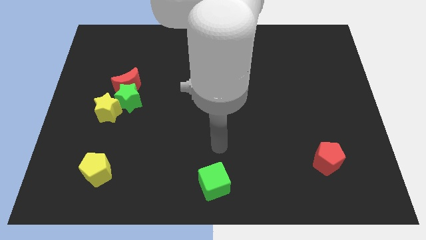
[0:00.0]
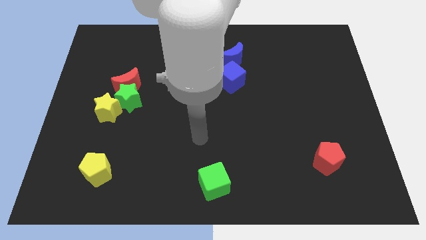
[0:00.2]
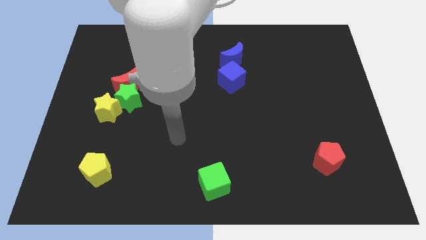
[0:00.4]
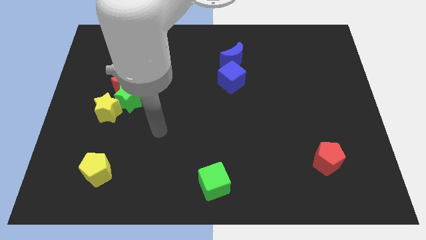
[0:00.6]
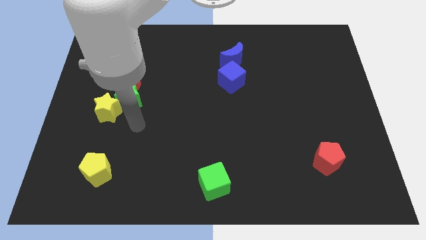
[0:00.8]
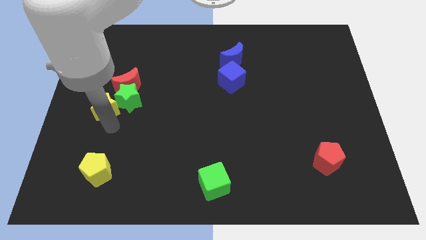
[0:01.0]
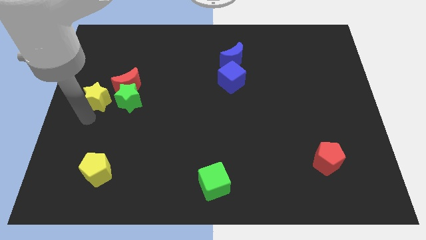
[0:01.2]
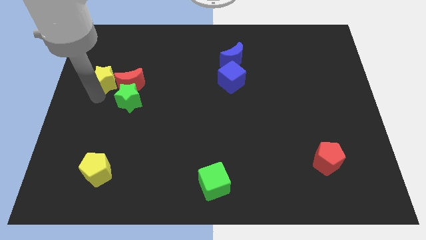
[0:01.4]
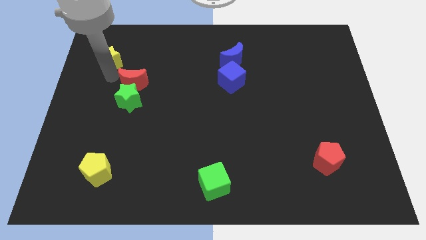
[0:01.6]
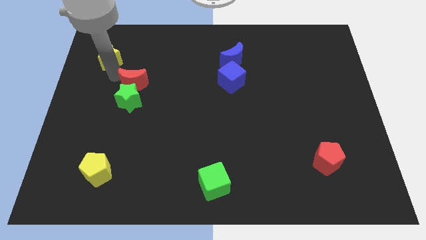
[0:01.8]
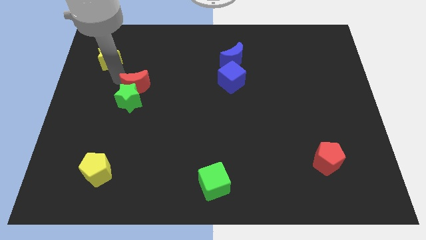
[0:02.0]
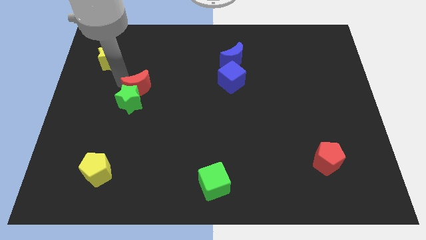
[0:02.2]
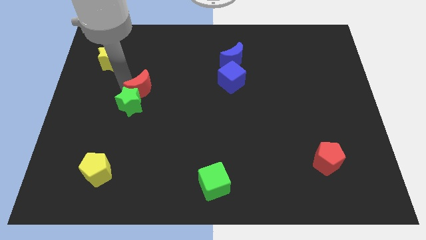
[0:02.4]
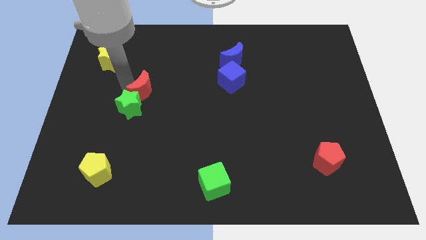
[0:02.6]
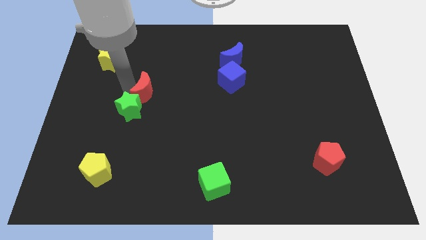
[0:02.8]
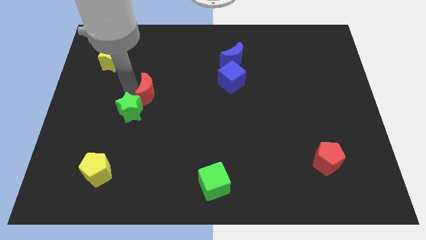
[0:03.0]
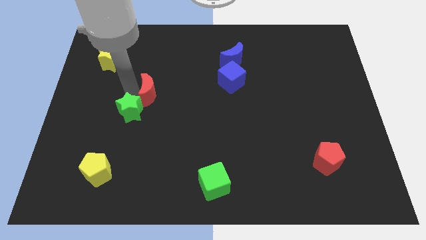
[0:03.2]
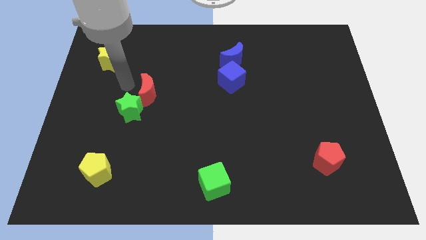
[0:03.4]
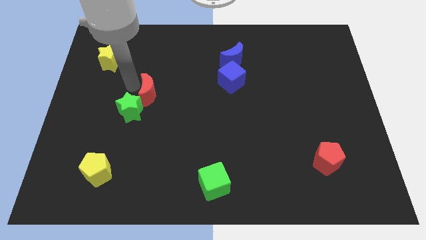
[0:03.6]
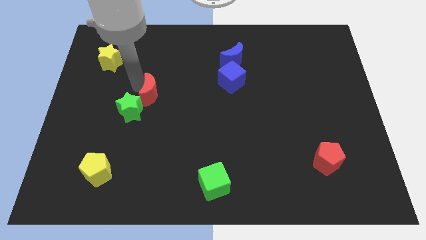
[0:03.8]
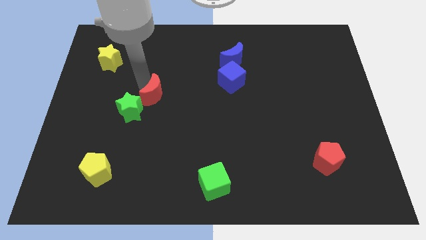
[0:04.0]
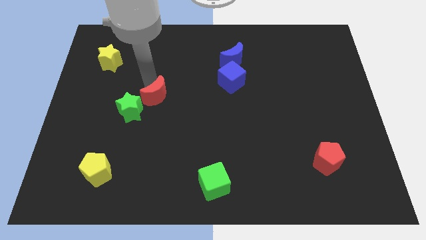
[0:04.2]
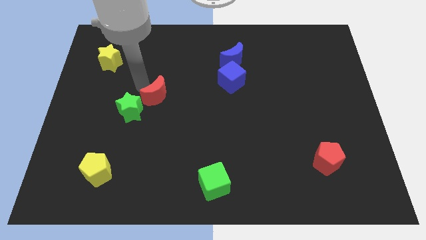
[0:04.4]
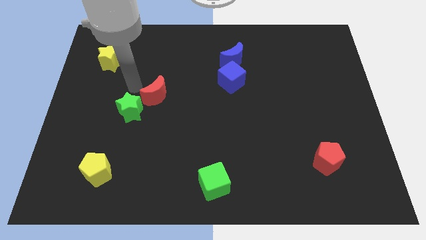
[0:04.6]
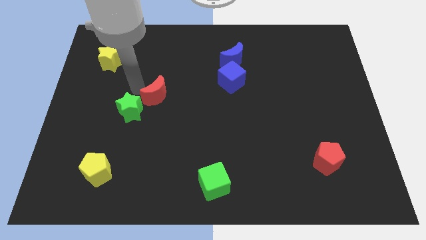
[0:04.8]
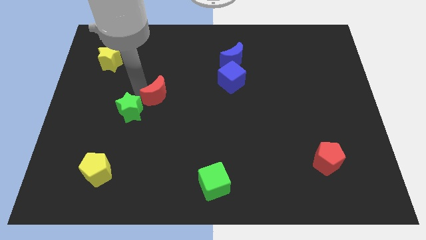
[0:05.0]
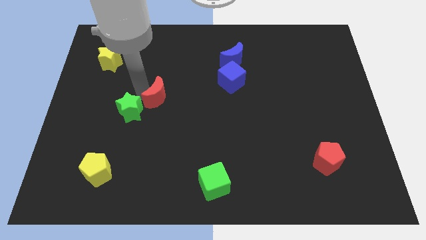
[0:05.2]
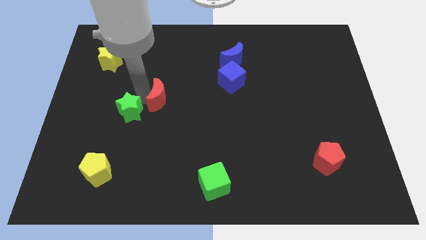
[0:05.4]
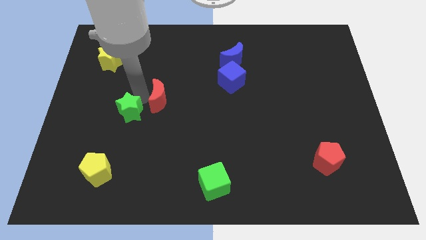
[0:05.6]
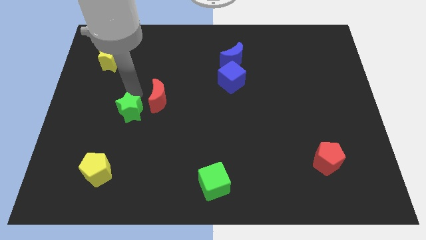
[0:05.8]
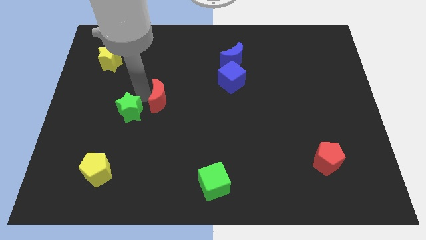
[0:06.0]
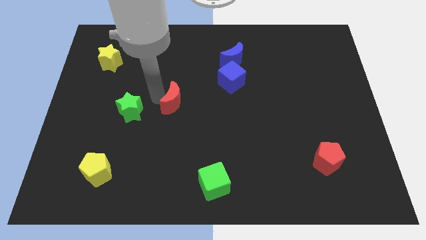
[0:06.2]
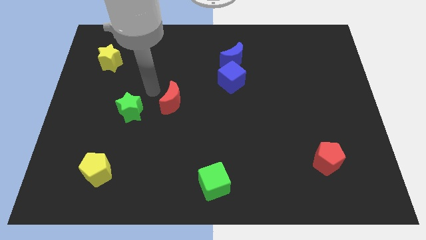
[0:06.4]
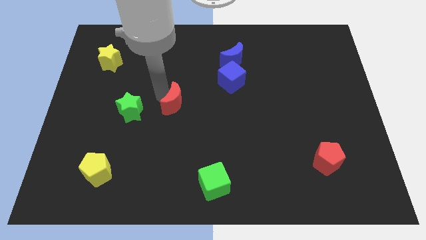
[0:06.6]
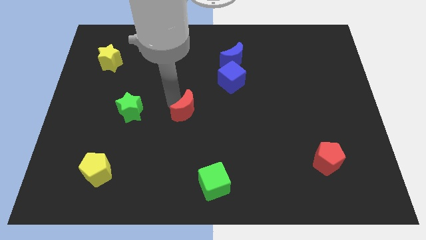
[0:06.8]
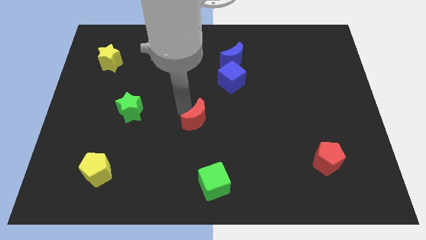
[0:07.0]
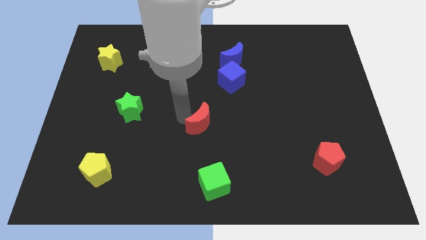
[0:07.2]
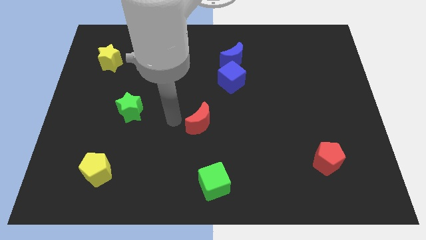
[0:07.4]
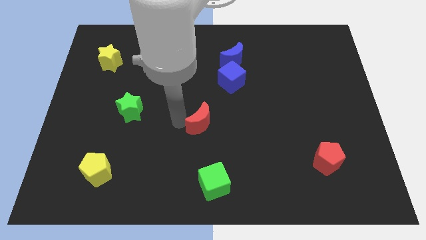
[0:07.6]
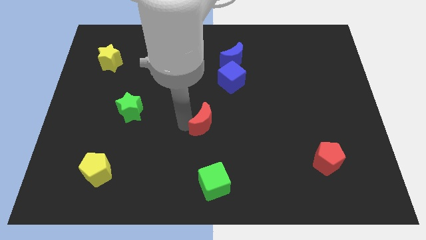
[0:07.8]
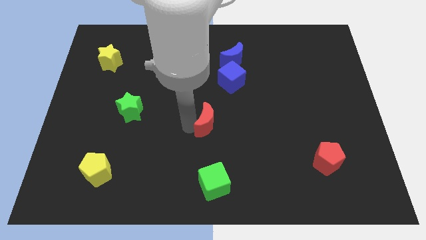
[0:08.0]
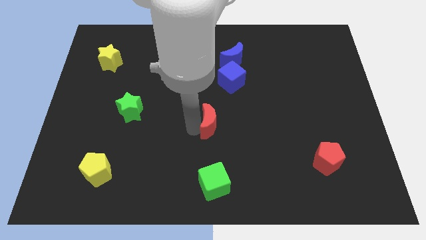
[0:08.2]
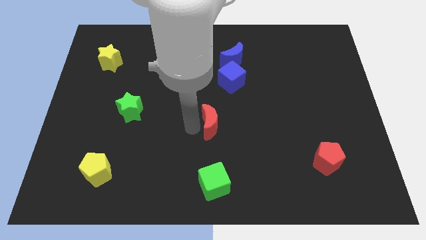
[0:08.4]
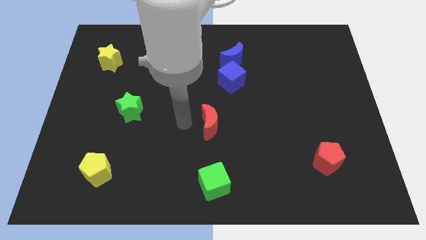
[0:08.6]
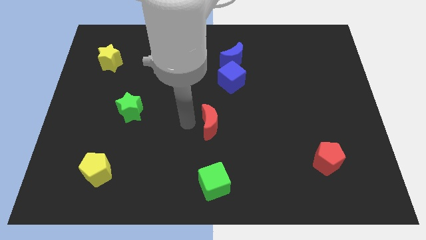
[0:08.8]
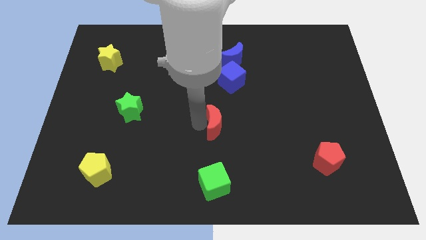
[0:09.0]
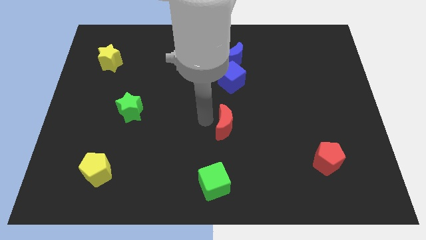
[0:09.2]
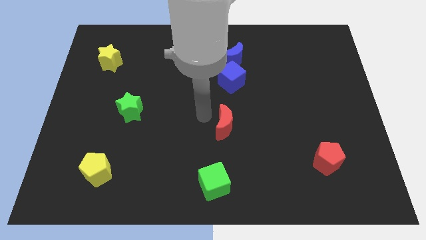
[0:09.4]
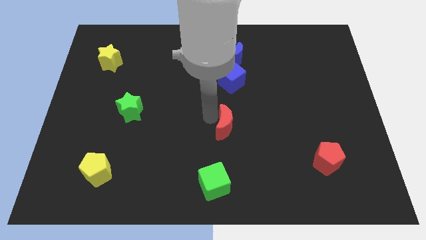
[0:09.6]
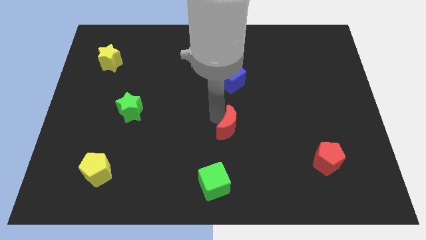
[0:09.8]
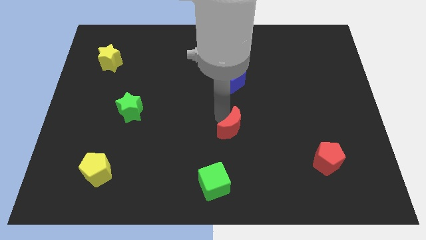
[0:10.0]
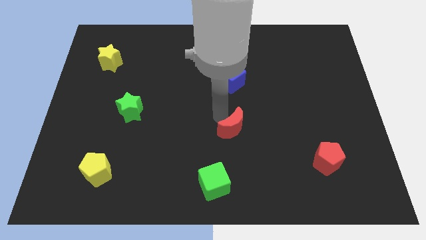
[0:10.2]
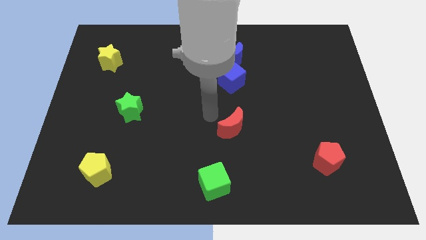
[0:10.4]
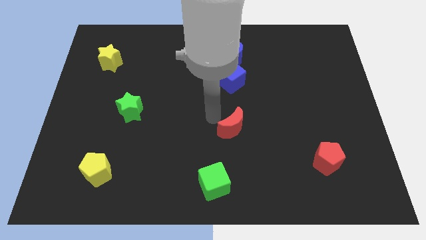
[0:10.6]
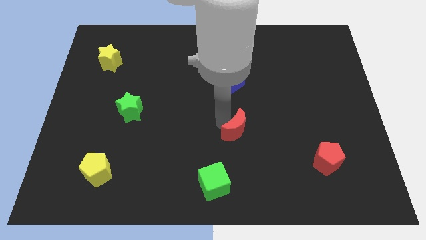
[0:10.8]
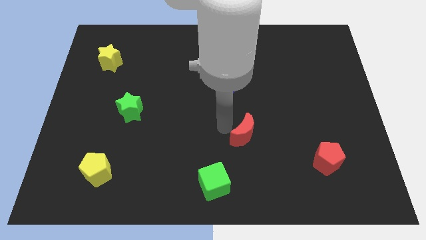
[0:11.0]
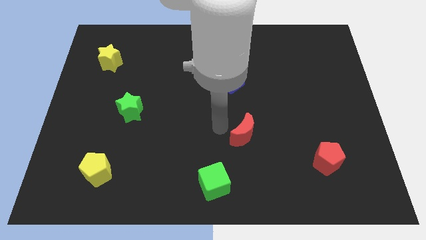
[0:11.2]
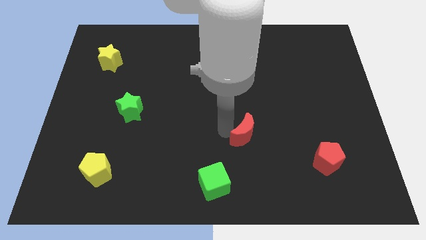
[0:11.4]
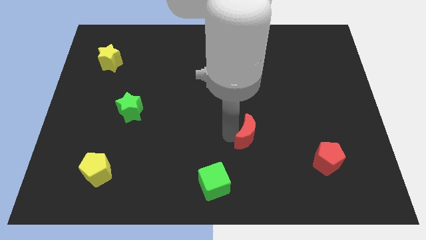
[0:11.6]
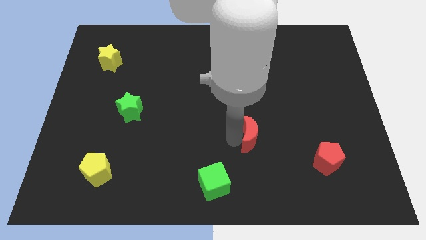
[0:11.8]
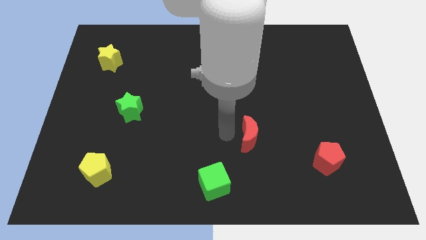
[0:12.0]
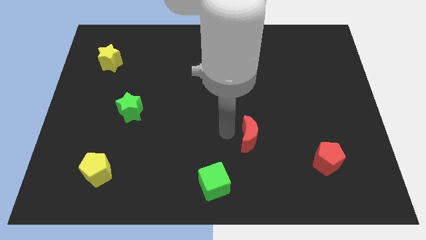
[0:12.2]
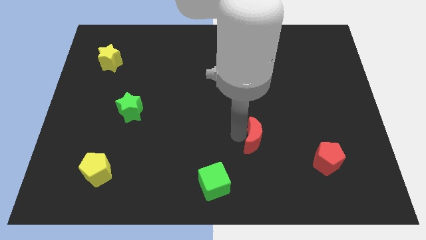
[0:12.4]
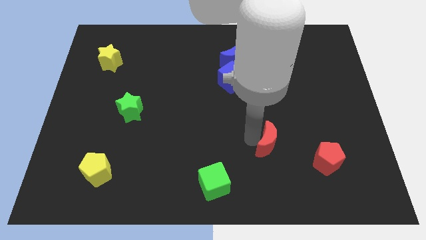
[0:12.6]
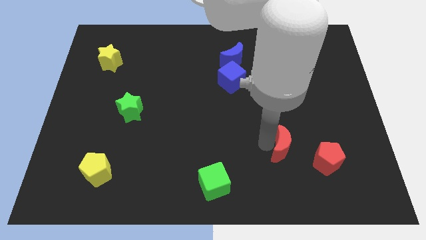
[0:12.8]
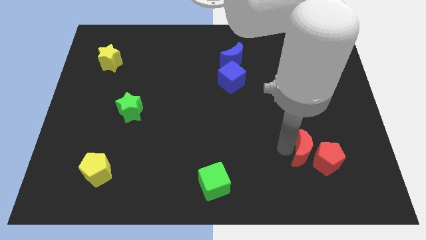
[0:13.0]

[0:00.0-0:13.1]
move the red moon close to the red pentagon
